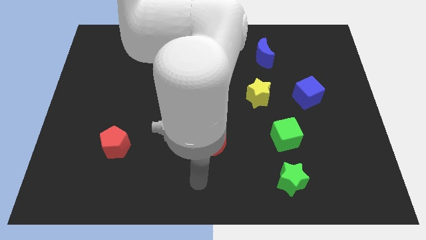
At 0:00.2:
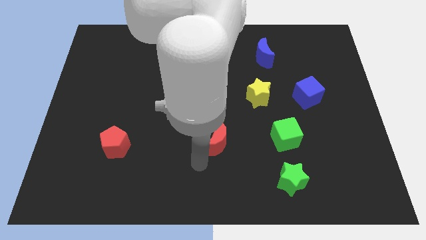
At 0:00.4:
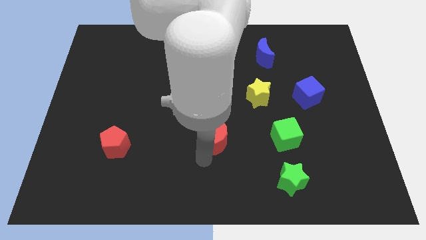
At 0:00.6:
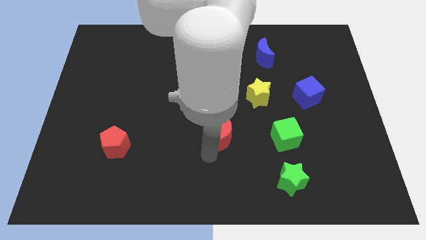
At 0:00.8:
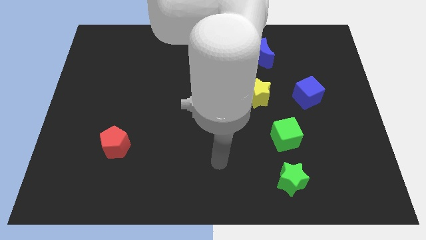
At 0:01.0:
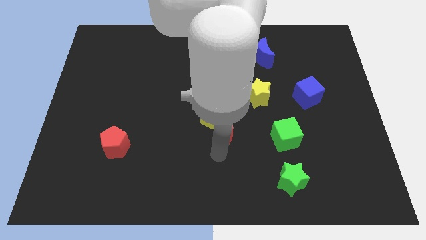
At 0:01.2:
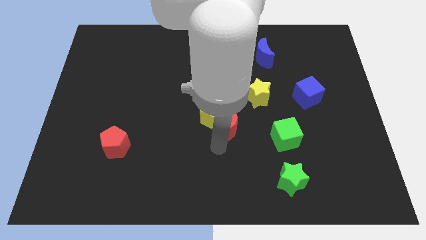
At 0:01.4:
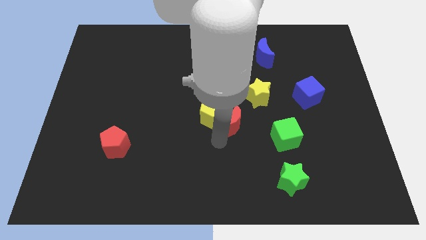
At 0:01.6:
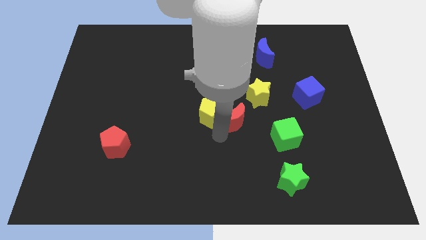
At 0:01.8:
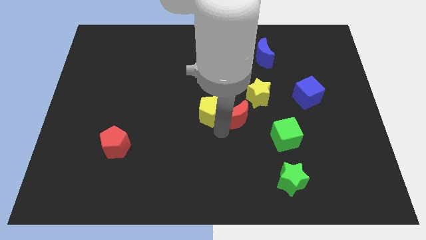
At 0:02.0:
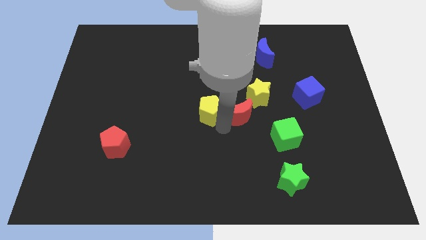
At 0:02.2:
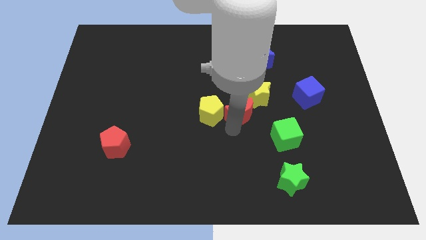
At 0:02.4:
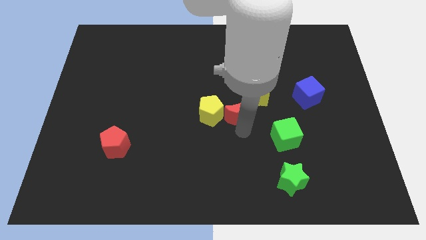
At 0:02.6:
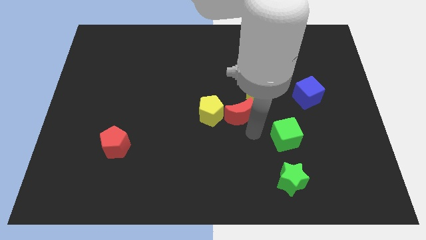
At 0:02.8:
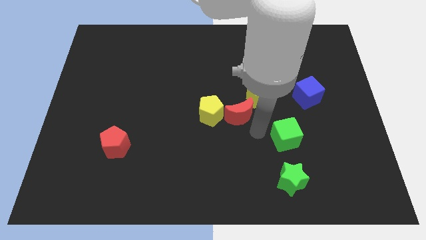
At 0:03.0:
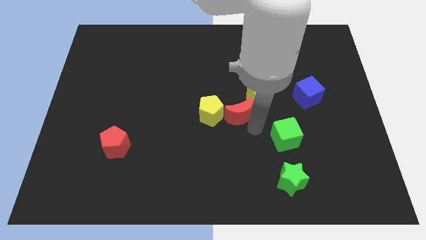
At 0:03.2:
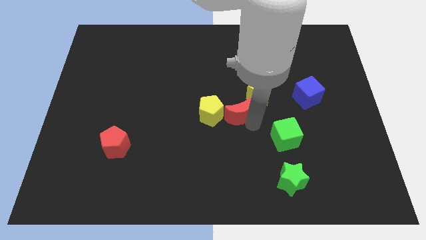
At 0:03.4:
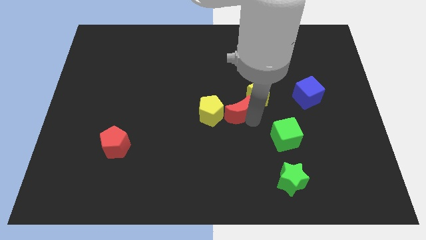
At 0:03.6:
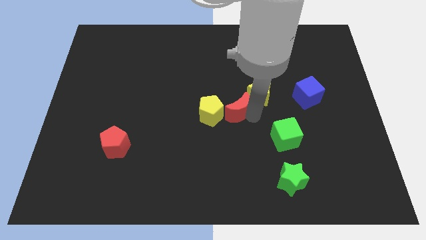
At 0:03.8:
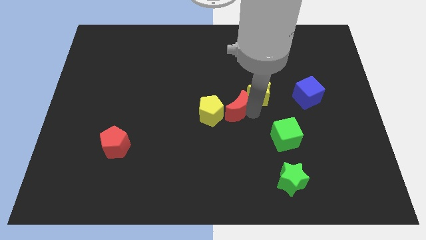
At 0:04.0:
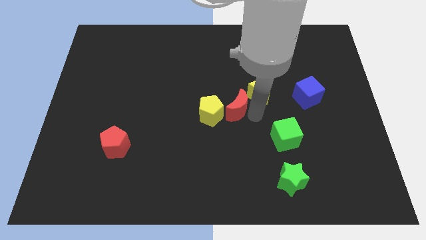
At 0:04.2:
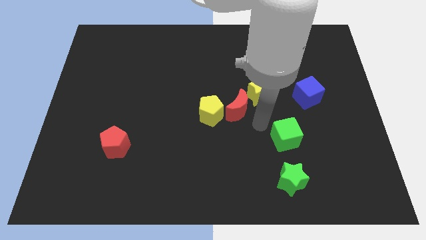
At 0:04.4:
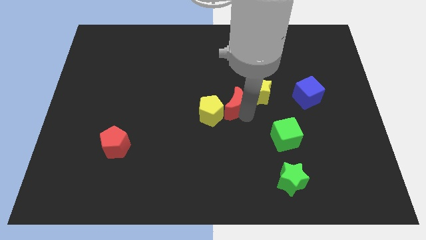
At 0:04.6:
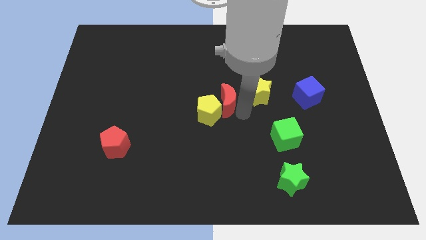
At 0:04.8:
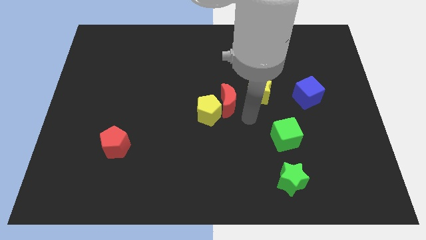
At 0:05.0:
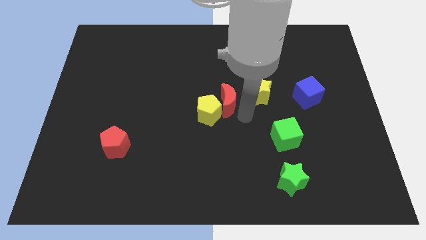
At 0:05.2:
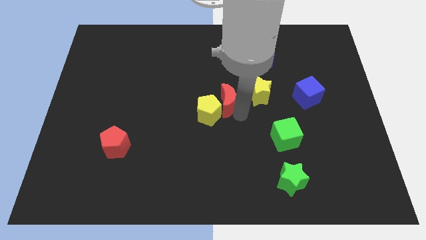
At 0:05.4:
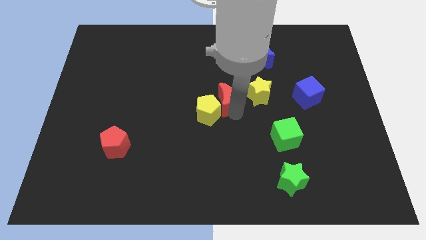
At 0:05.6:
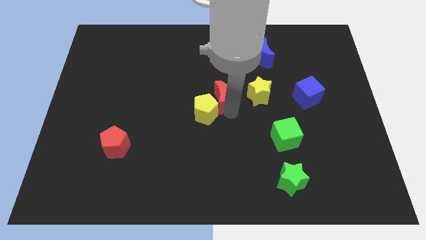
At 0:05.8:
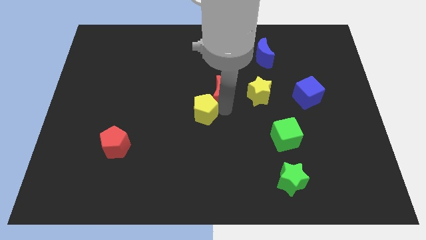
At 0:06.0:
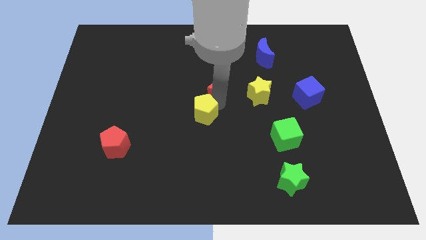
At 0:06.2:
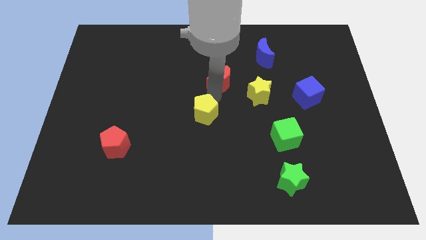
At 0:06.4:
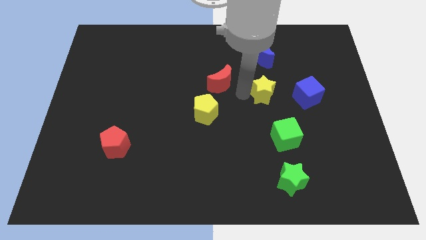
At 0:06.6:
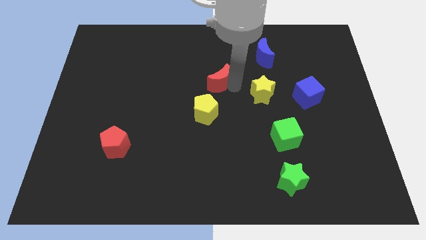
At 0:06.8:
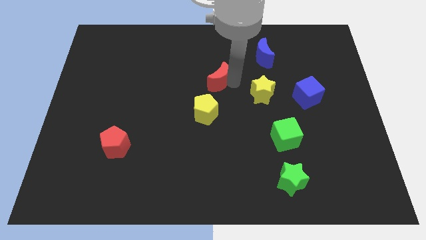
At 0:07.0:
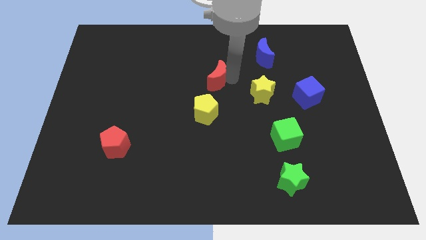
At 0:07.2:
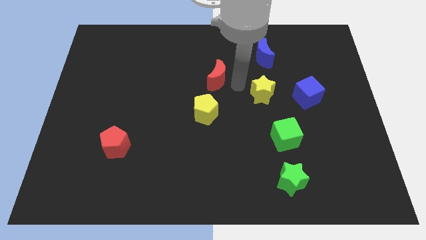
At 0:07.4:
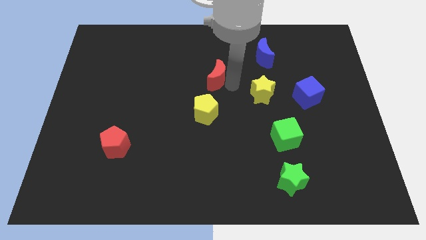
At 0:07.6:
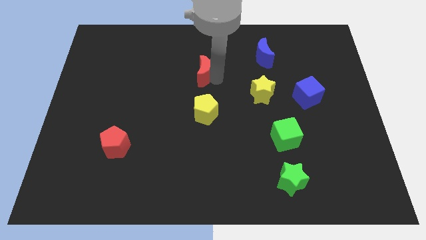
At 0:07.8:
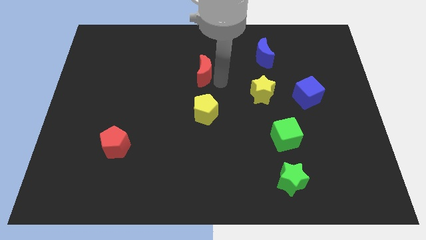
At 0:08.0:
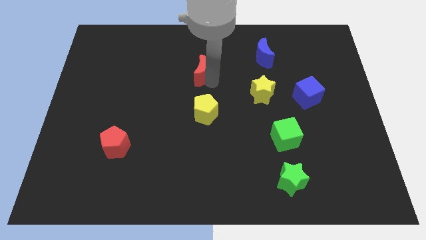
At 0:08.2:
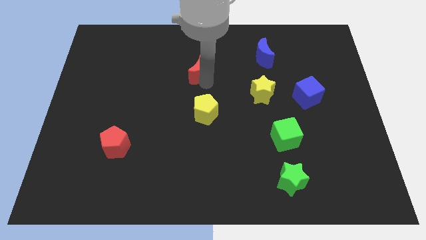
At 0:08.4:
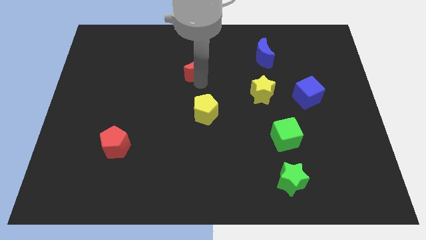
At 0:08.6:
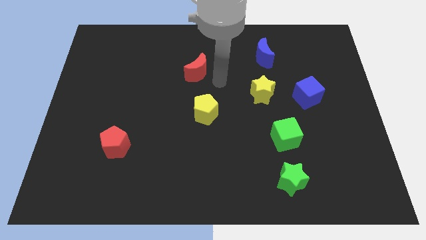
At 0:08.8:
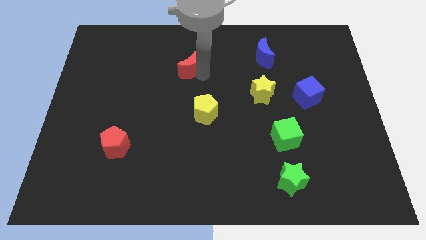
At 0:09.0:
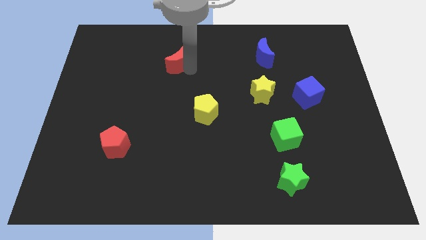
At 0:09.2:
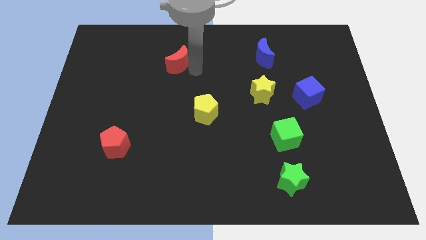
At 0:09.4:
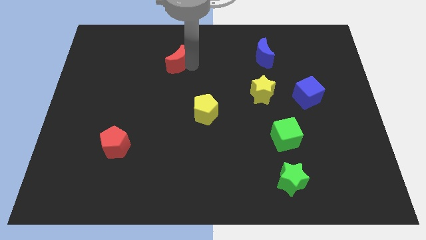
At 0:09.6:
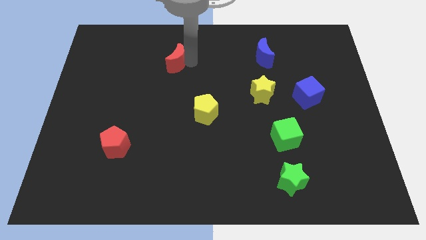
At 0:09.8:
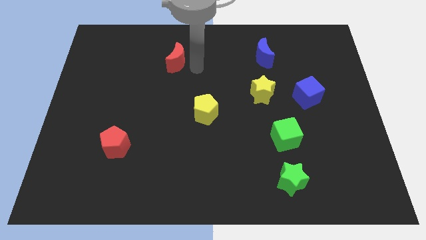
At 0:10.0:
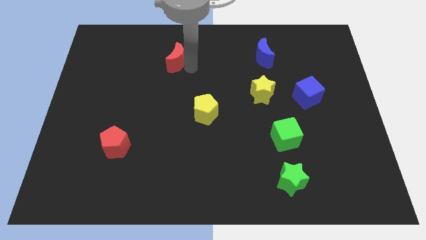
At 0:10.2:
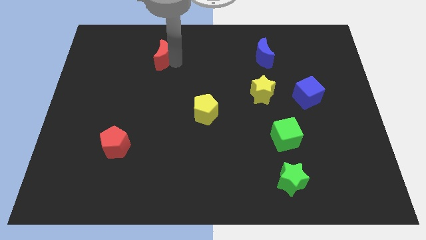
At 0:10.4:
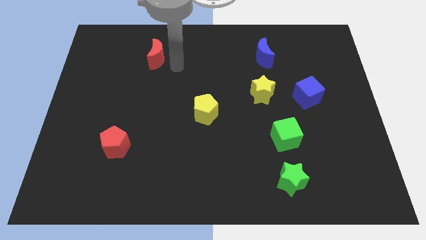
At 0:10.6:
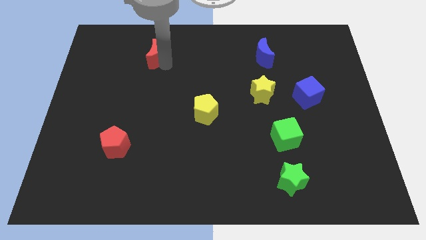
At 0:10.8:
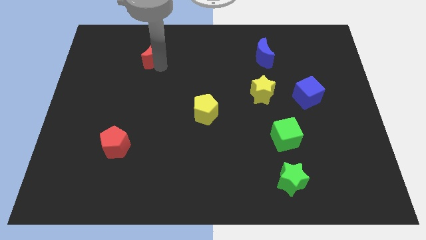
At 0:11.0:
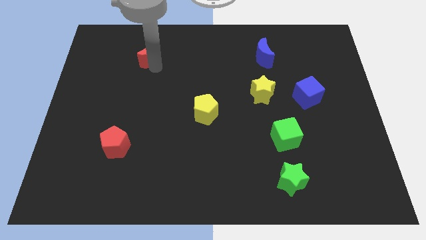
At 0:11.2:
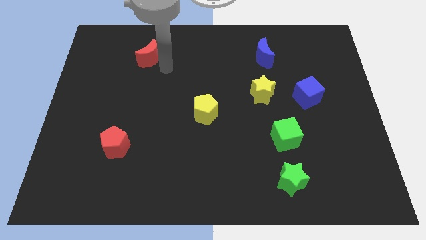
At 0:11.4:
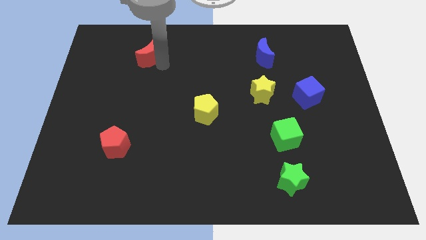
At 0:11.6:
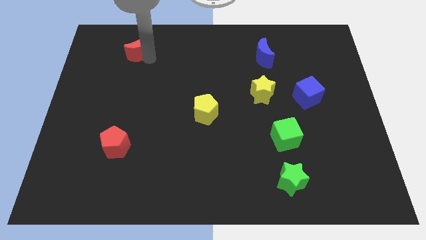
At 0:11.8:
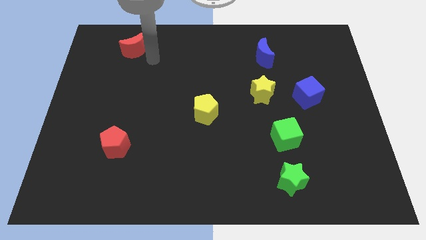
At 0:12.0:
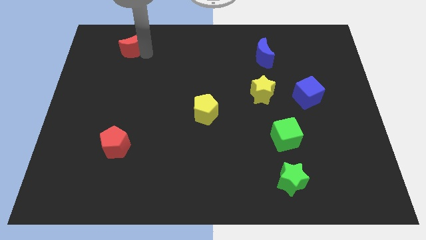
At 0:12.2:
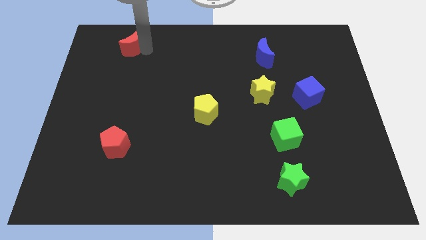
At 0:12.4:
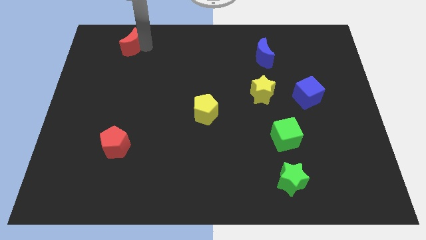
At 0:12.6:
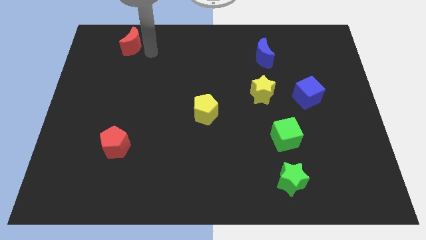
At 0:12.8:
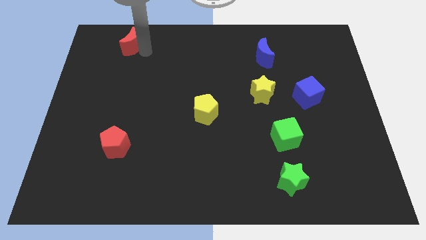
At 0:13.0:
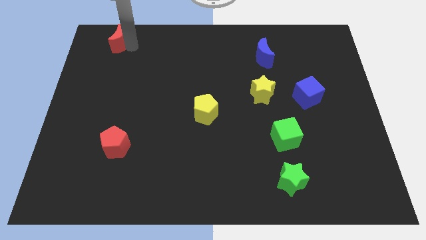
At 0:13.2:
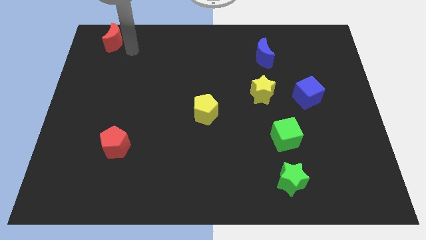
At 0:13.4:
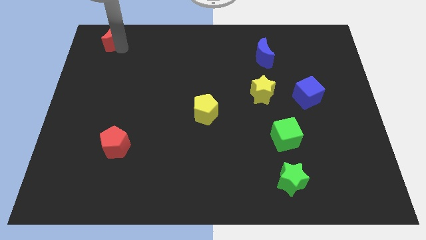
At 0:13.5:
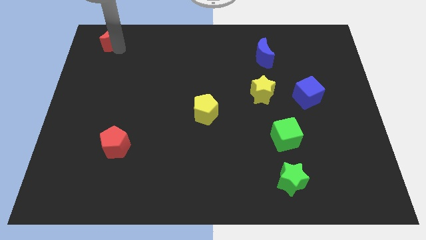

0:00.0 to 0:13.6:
push the red moon to the top left

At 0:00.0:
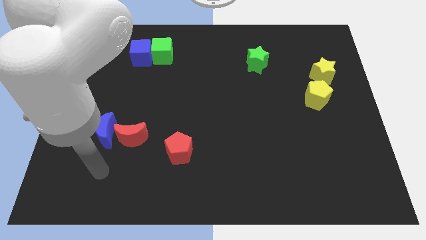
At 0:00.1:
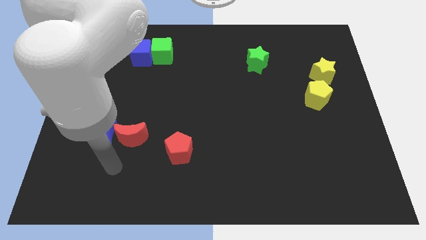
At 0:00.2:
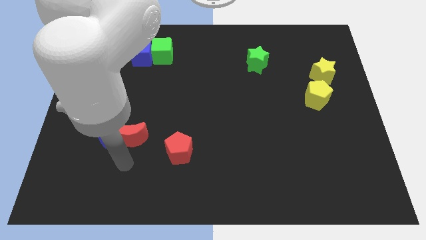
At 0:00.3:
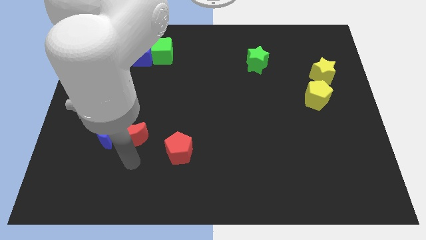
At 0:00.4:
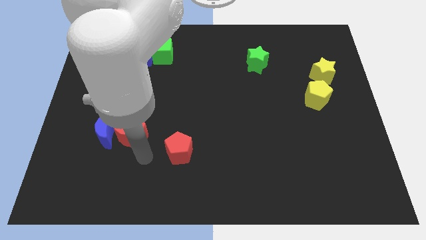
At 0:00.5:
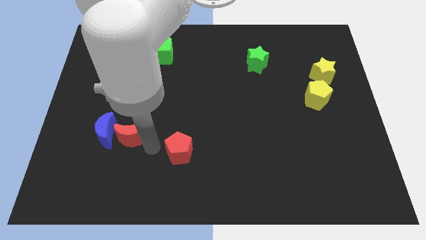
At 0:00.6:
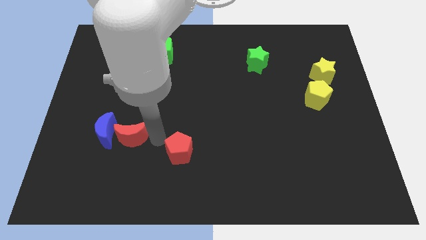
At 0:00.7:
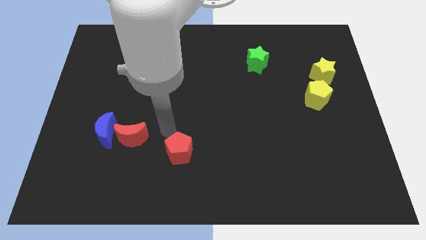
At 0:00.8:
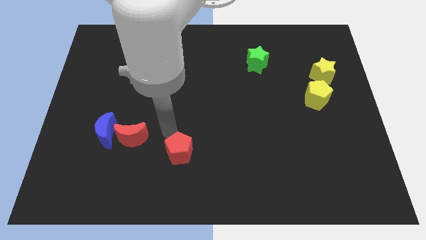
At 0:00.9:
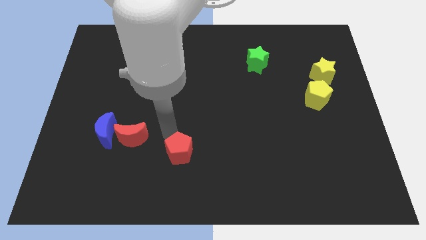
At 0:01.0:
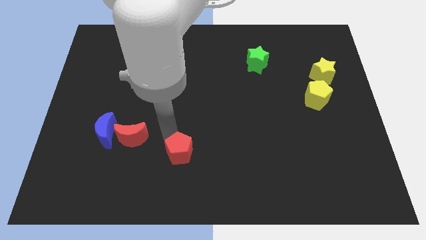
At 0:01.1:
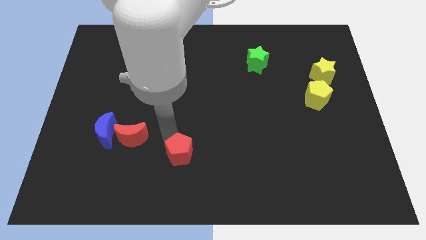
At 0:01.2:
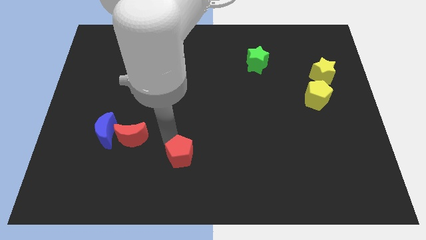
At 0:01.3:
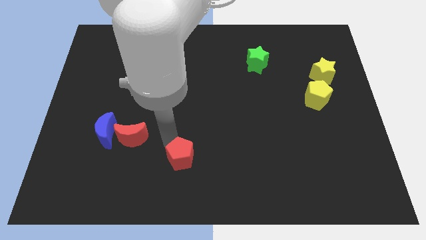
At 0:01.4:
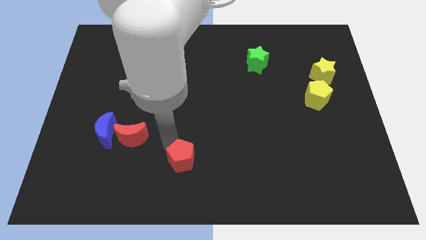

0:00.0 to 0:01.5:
put the red pentagon to the bottom side
